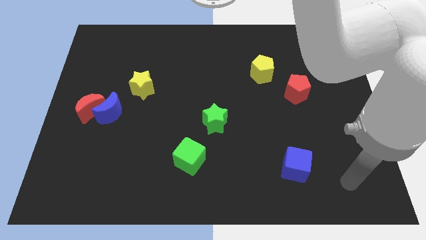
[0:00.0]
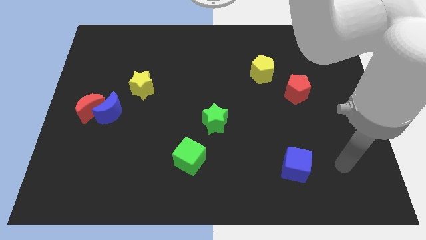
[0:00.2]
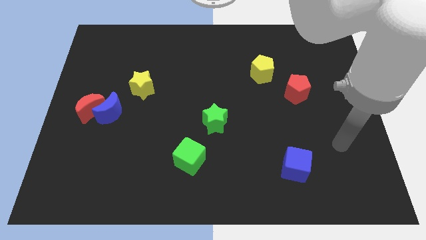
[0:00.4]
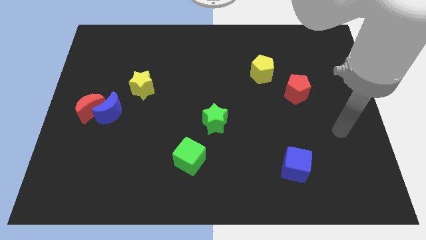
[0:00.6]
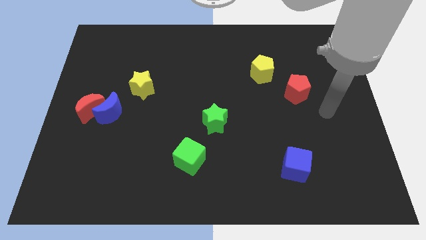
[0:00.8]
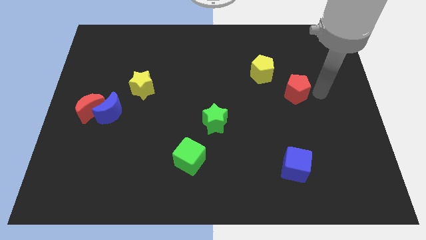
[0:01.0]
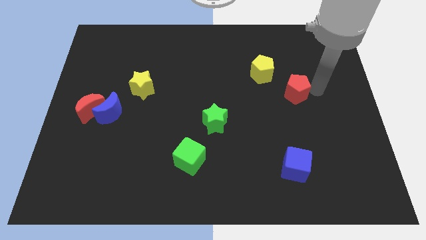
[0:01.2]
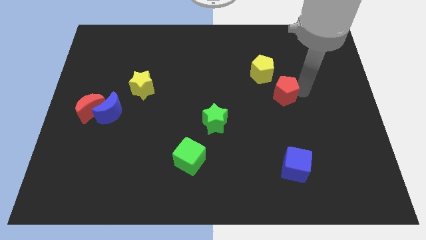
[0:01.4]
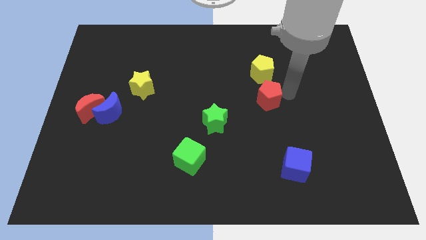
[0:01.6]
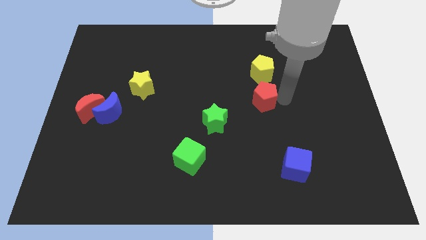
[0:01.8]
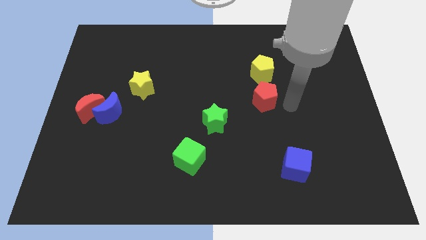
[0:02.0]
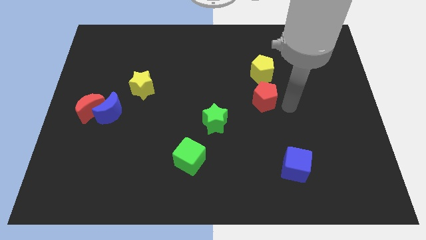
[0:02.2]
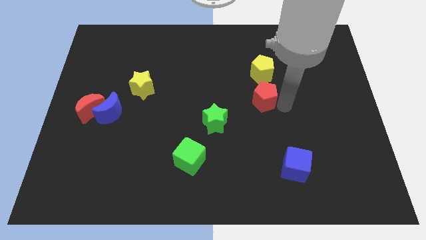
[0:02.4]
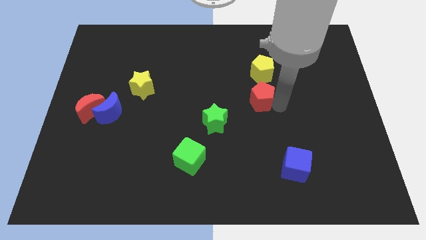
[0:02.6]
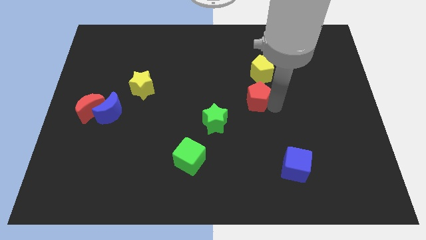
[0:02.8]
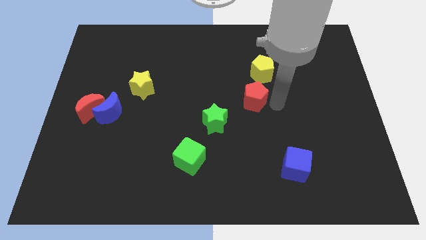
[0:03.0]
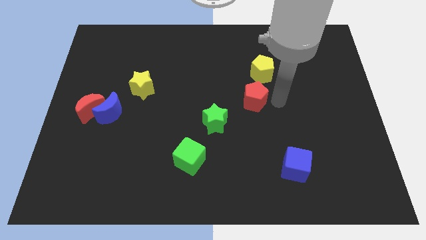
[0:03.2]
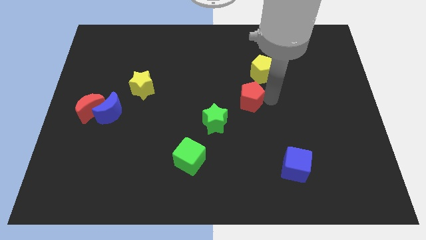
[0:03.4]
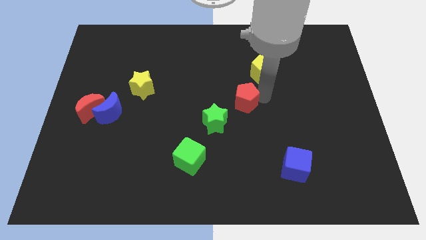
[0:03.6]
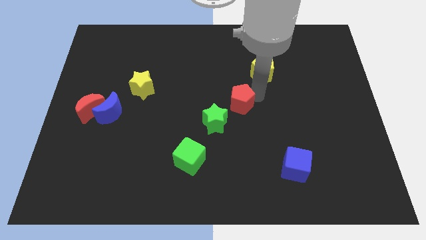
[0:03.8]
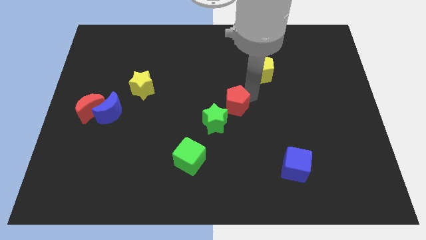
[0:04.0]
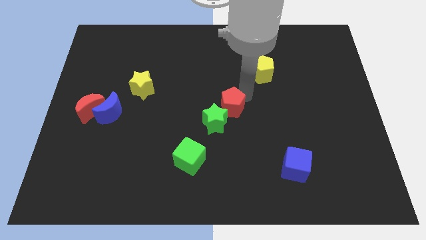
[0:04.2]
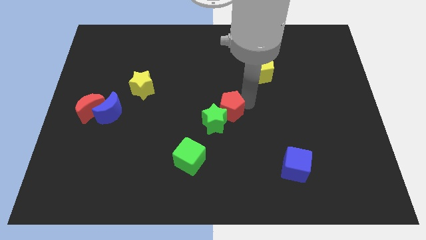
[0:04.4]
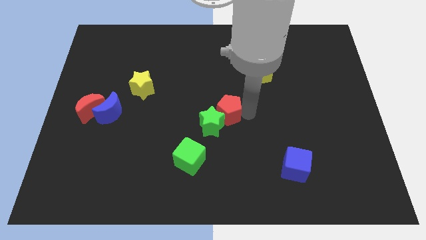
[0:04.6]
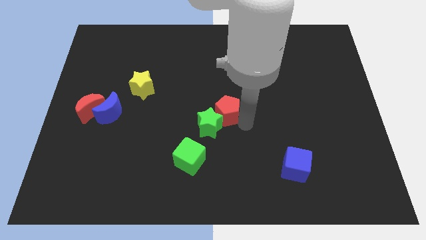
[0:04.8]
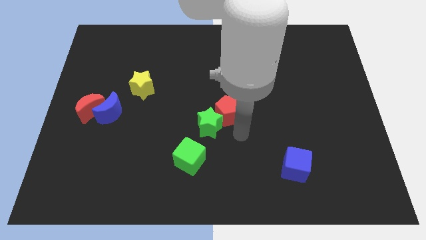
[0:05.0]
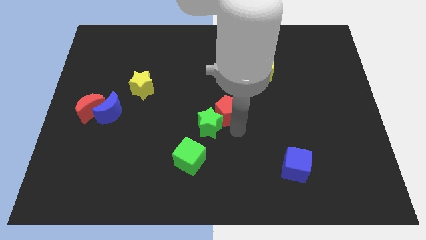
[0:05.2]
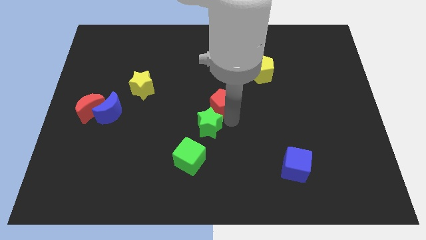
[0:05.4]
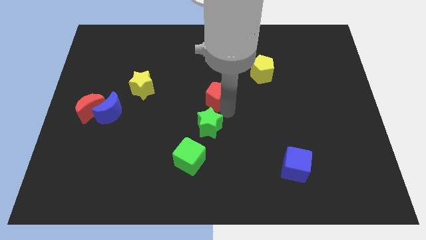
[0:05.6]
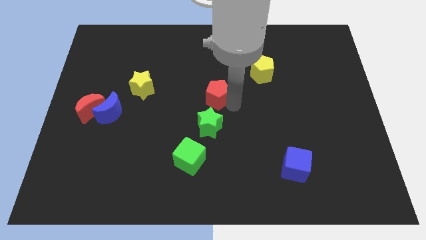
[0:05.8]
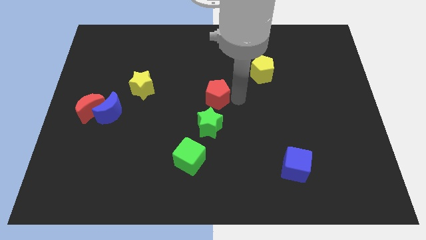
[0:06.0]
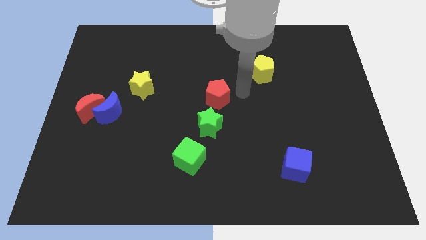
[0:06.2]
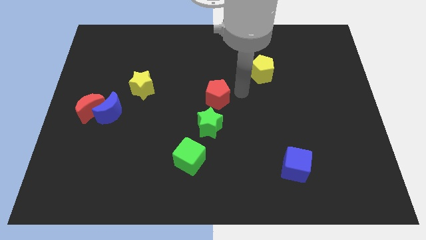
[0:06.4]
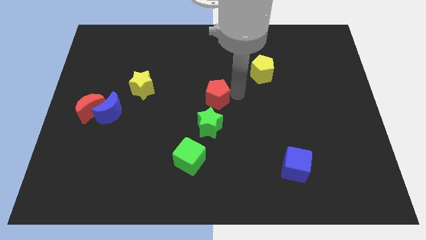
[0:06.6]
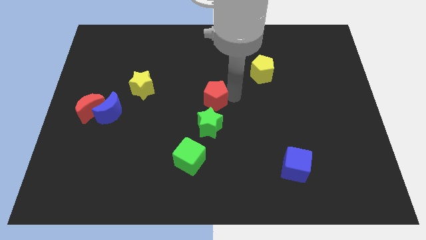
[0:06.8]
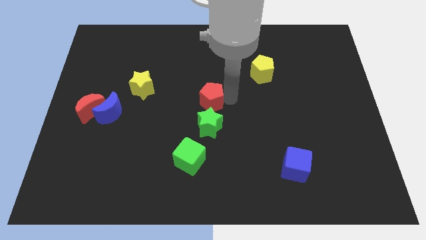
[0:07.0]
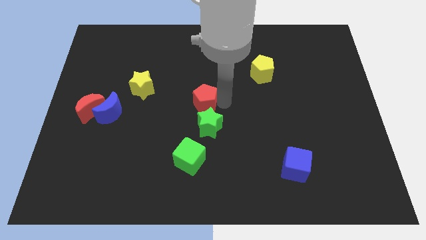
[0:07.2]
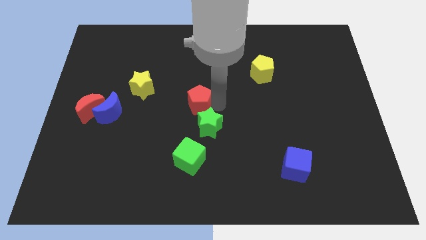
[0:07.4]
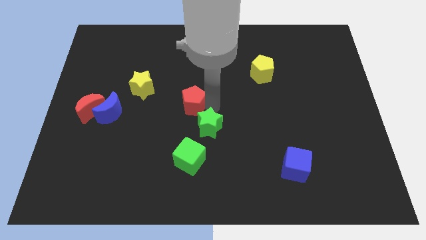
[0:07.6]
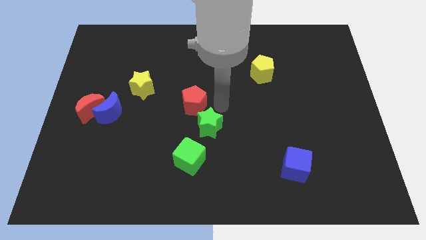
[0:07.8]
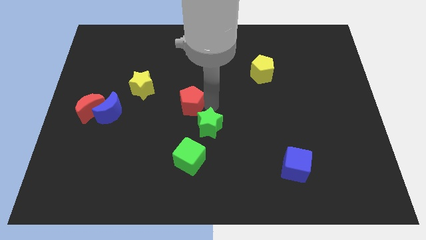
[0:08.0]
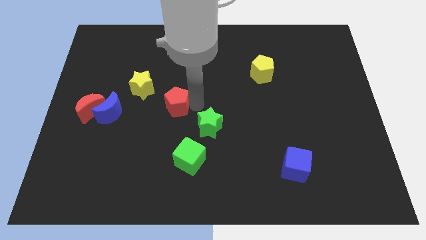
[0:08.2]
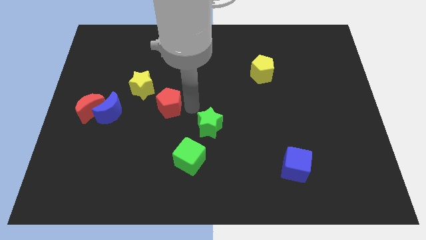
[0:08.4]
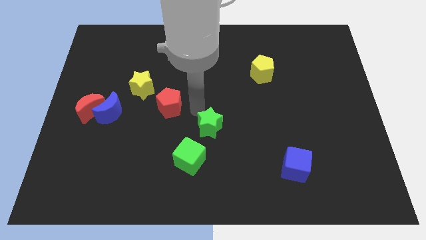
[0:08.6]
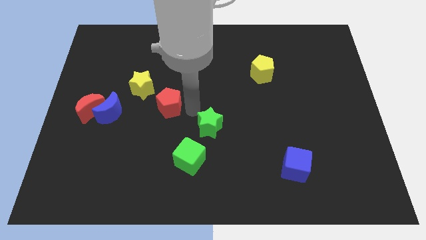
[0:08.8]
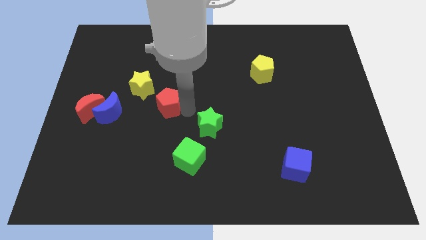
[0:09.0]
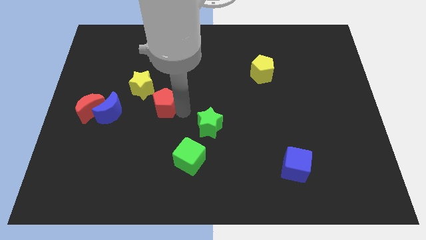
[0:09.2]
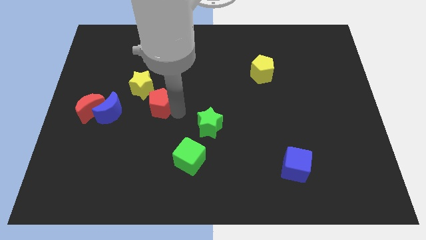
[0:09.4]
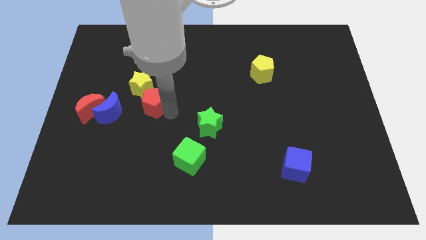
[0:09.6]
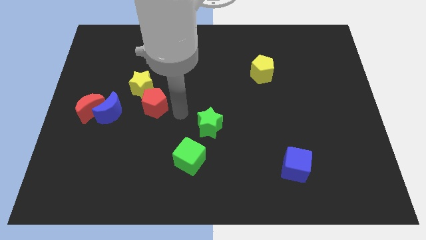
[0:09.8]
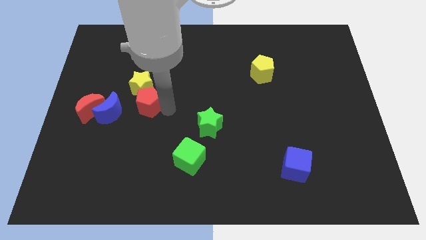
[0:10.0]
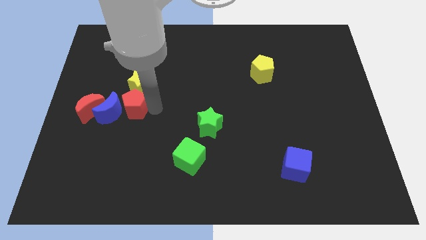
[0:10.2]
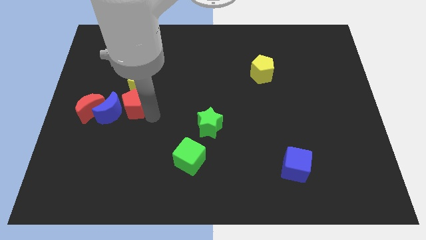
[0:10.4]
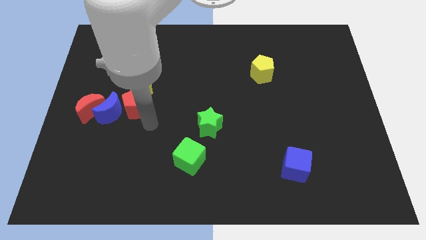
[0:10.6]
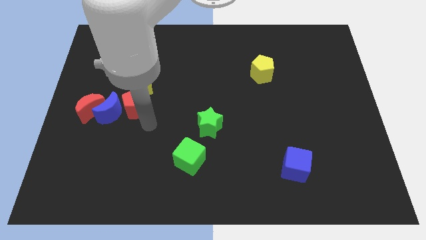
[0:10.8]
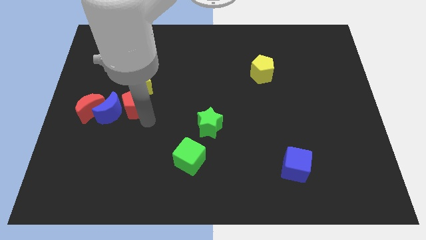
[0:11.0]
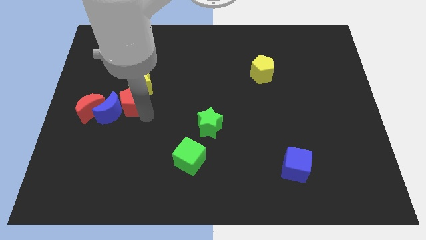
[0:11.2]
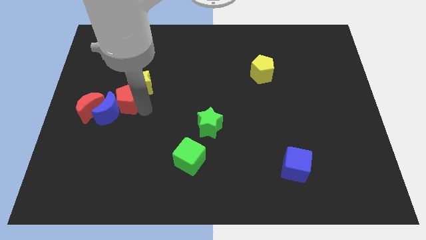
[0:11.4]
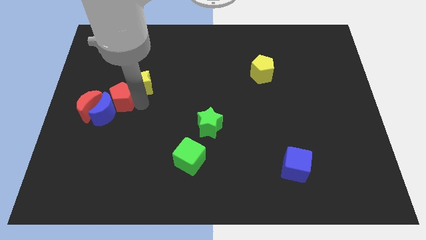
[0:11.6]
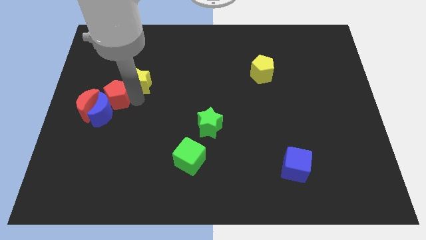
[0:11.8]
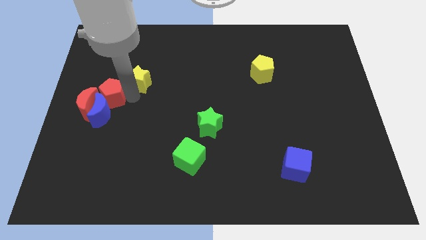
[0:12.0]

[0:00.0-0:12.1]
push the red pentagon next to the red moon

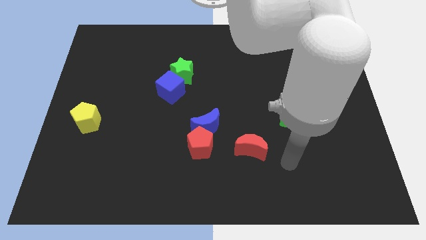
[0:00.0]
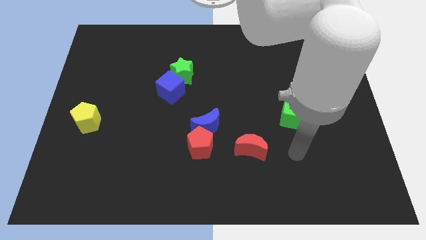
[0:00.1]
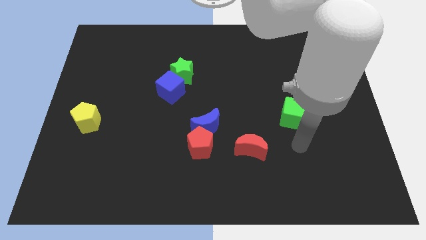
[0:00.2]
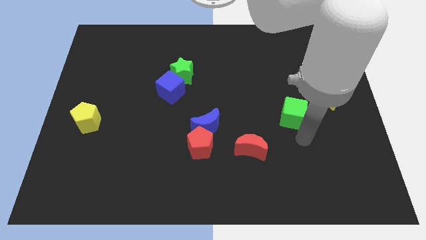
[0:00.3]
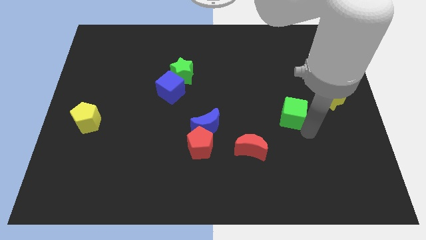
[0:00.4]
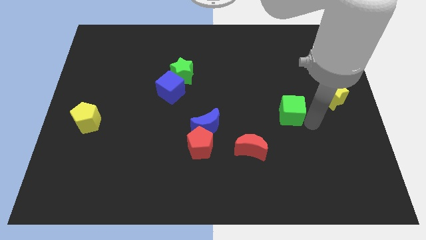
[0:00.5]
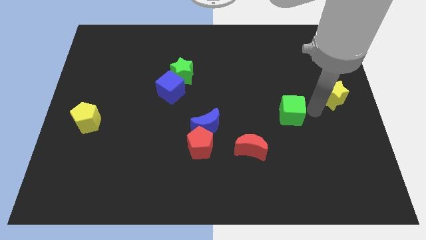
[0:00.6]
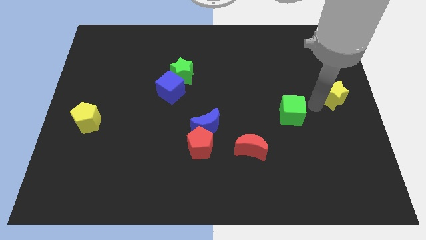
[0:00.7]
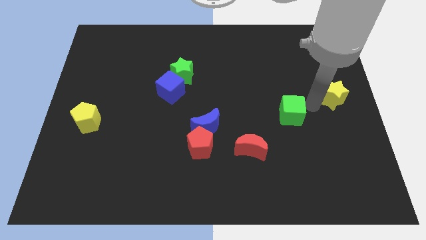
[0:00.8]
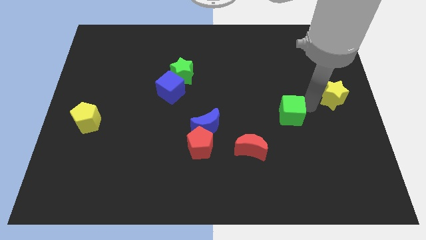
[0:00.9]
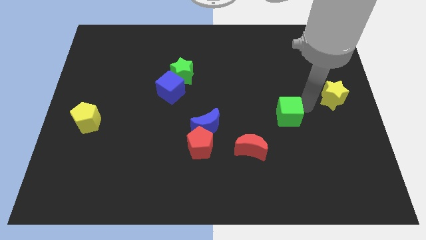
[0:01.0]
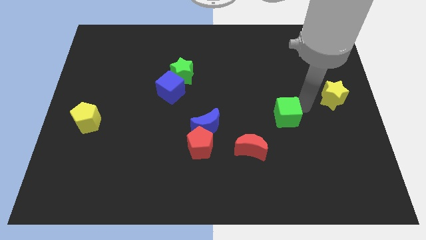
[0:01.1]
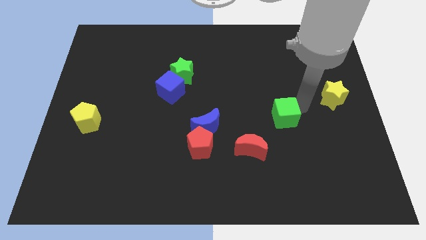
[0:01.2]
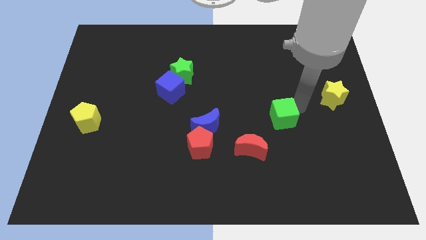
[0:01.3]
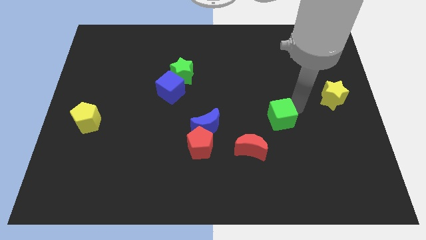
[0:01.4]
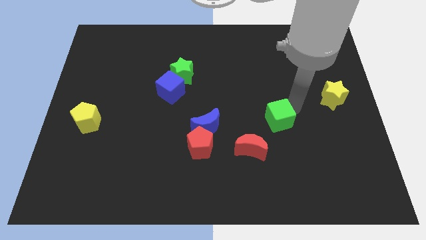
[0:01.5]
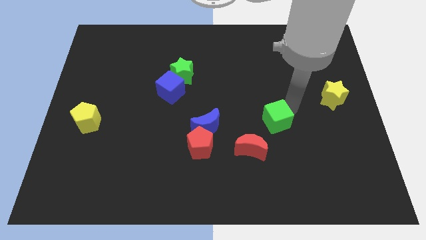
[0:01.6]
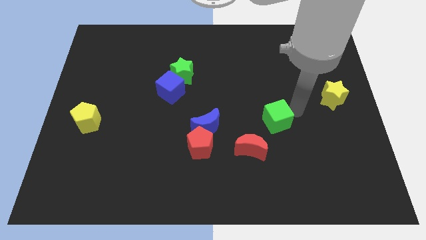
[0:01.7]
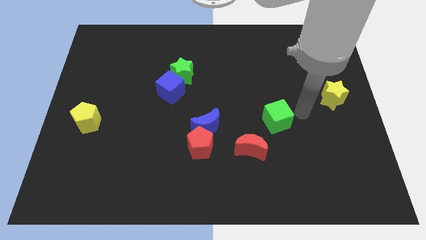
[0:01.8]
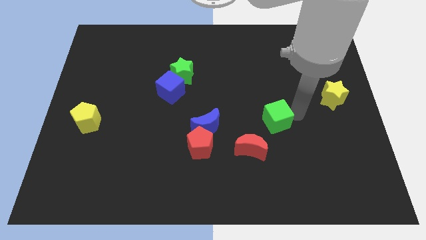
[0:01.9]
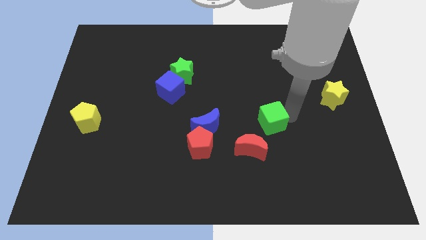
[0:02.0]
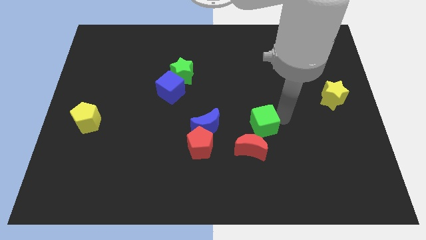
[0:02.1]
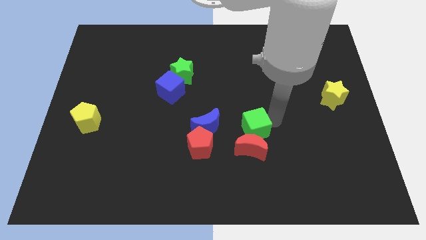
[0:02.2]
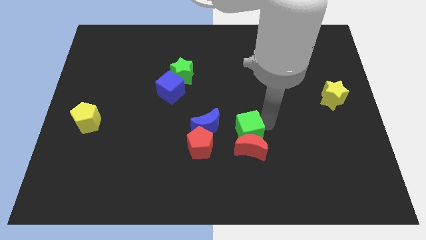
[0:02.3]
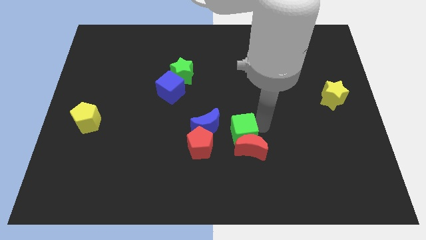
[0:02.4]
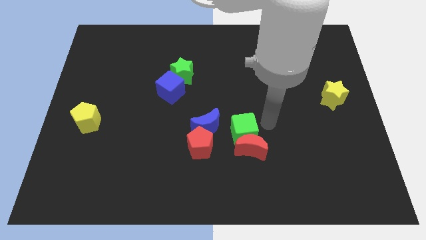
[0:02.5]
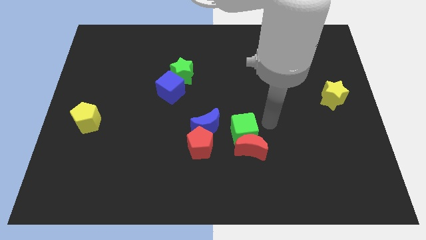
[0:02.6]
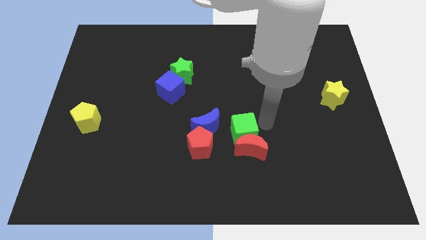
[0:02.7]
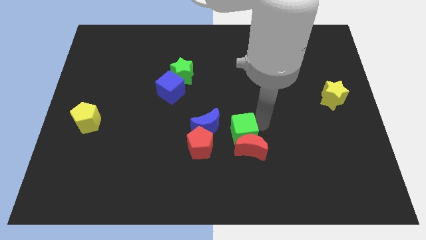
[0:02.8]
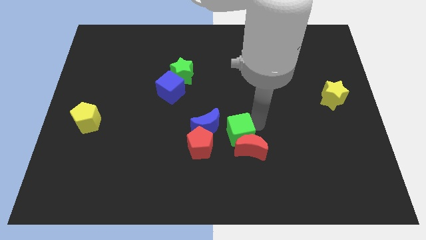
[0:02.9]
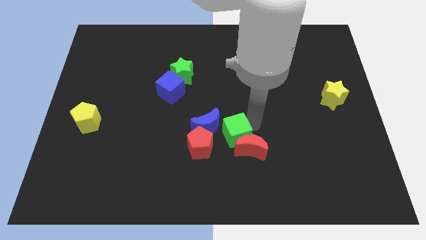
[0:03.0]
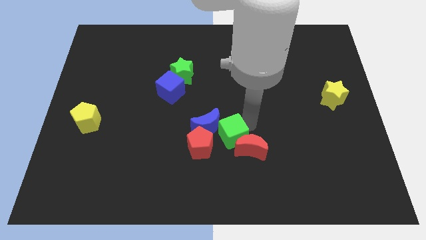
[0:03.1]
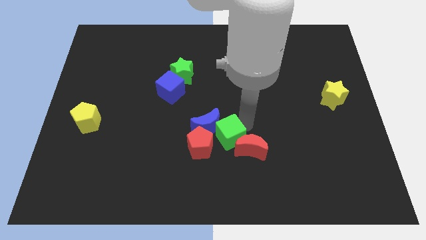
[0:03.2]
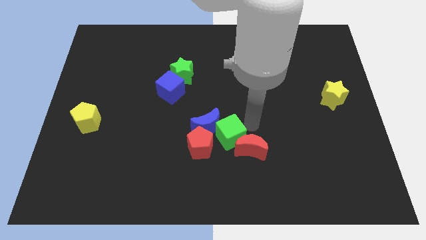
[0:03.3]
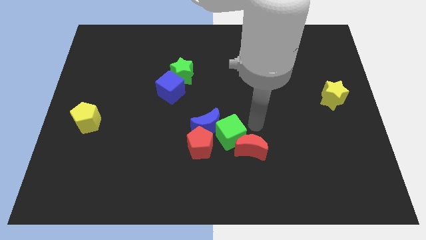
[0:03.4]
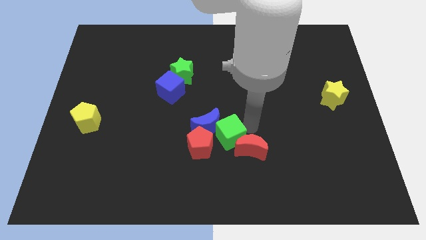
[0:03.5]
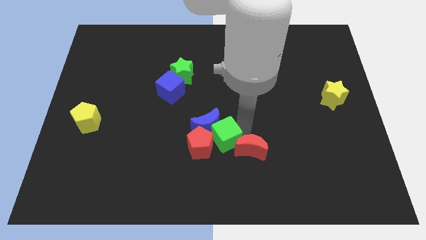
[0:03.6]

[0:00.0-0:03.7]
move the green cube to the red pentagon
